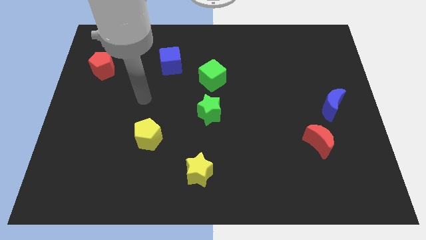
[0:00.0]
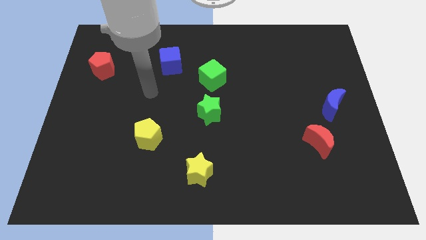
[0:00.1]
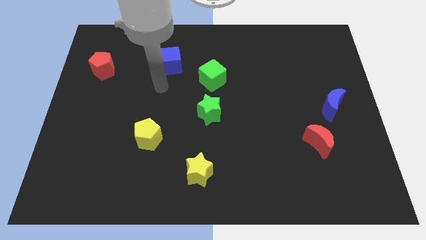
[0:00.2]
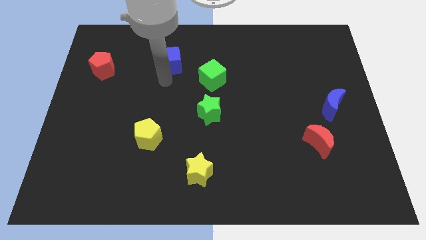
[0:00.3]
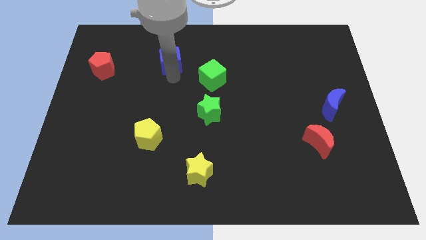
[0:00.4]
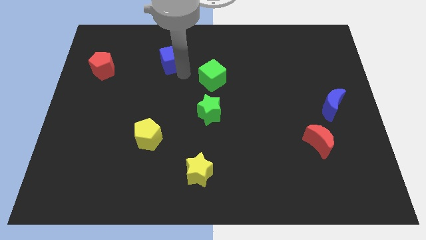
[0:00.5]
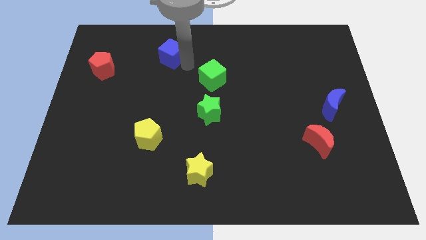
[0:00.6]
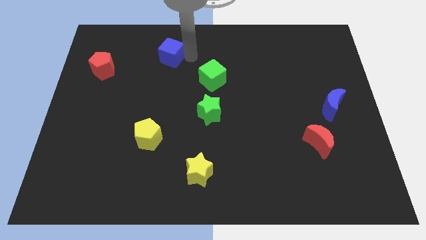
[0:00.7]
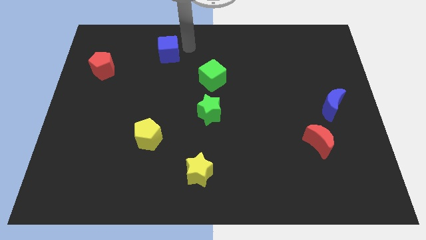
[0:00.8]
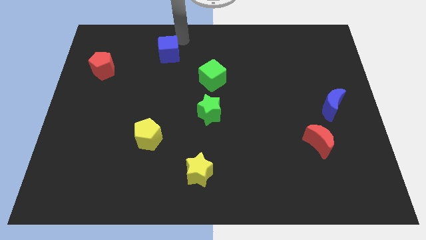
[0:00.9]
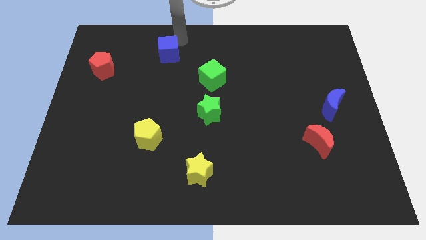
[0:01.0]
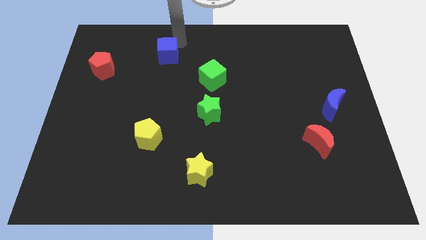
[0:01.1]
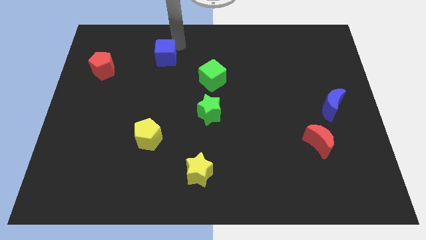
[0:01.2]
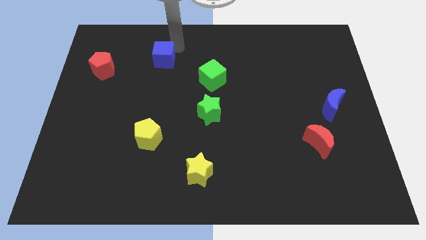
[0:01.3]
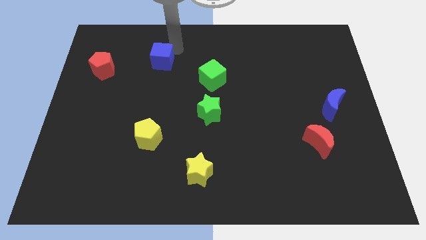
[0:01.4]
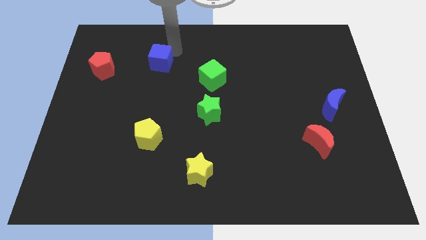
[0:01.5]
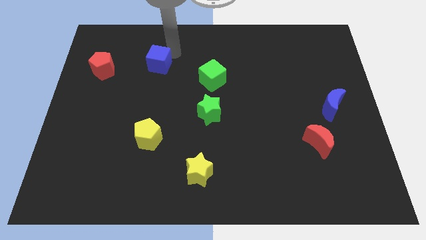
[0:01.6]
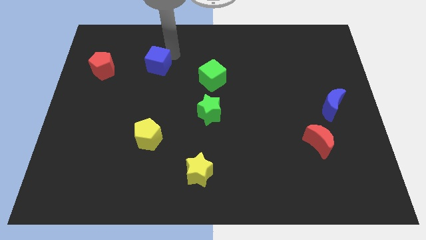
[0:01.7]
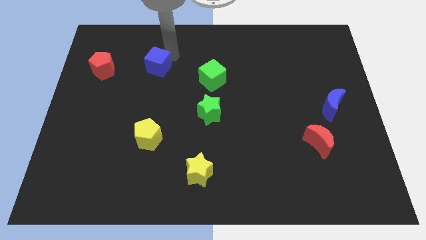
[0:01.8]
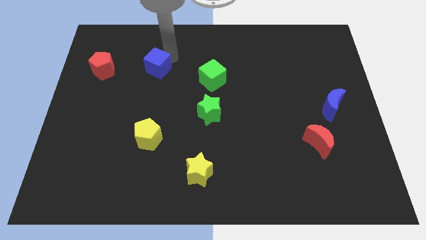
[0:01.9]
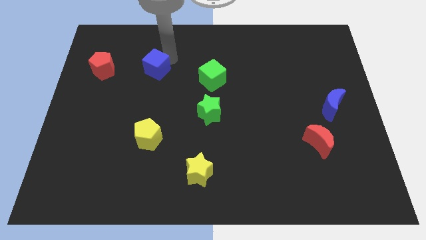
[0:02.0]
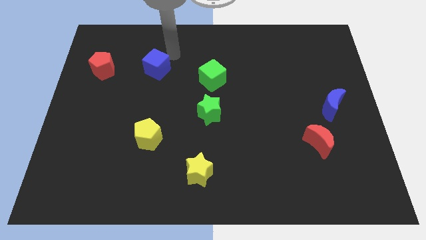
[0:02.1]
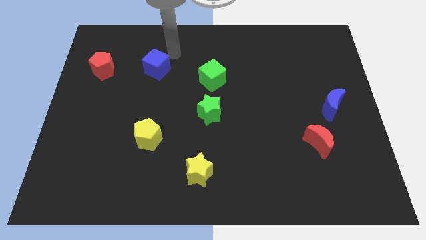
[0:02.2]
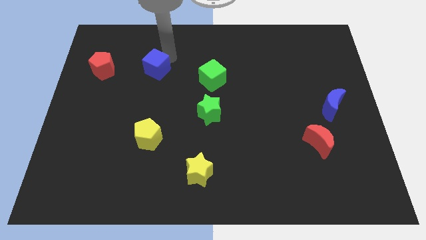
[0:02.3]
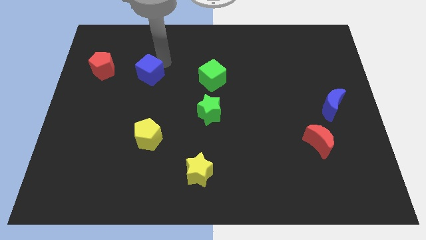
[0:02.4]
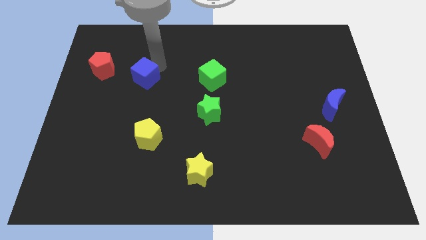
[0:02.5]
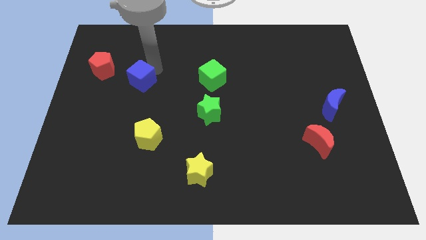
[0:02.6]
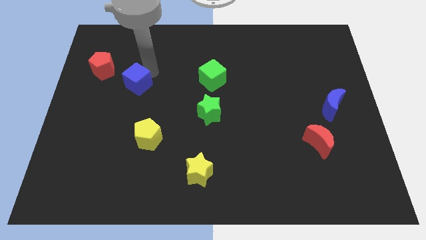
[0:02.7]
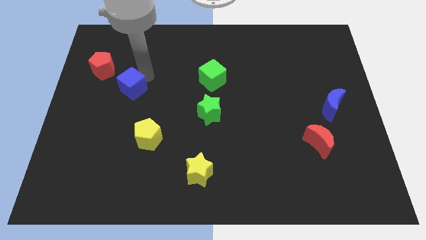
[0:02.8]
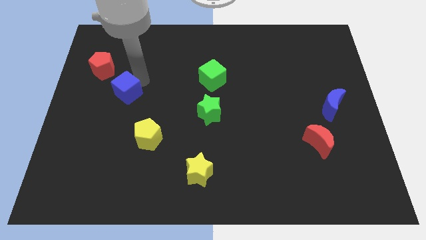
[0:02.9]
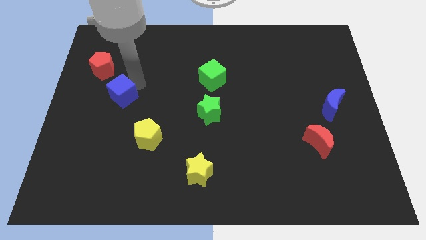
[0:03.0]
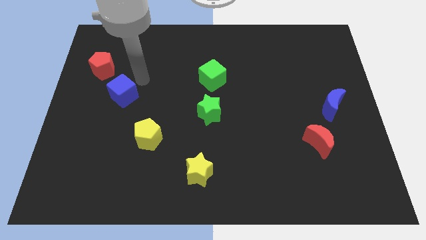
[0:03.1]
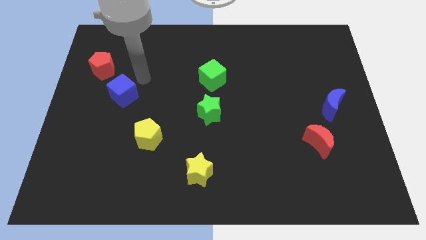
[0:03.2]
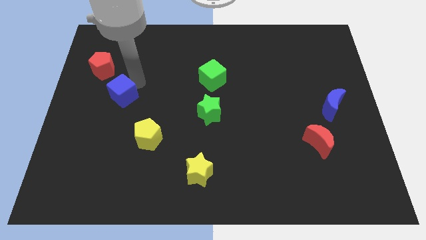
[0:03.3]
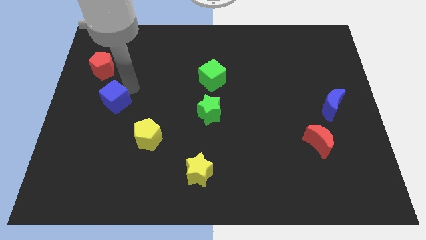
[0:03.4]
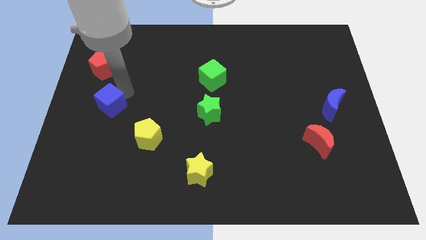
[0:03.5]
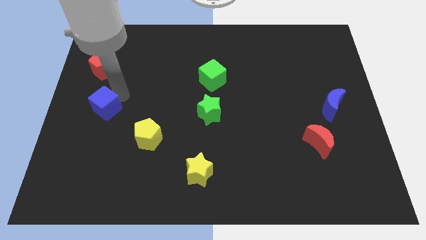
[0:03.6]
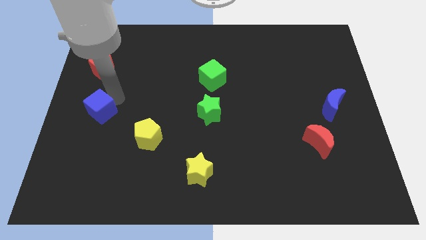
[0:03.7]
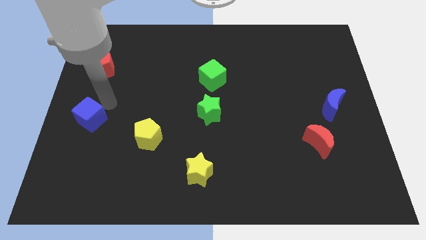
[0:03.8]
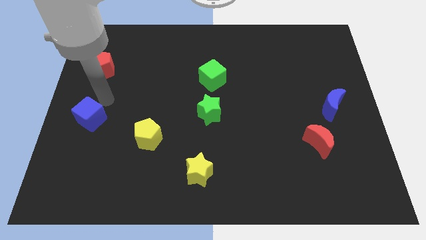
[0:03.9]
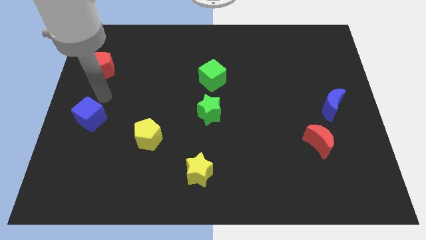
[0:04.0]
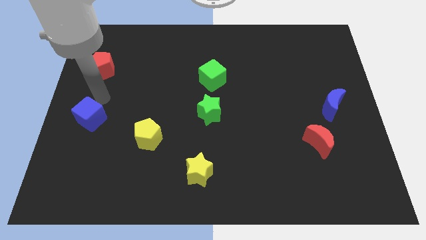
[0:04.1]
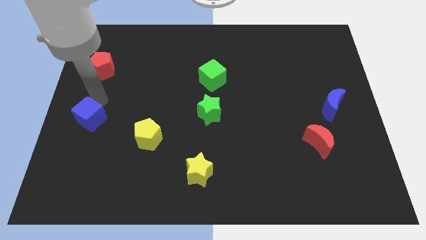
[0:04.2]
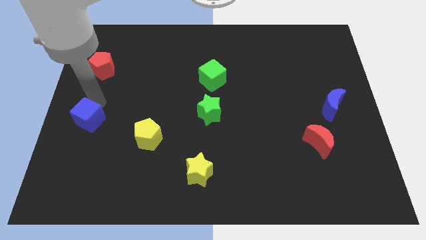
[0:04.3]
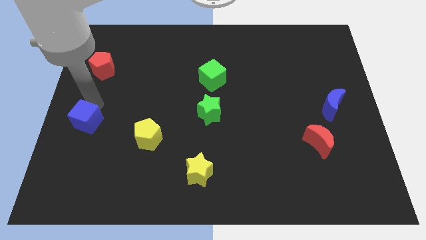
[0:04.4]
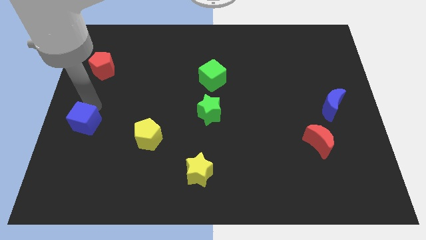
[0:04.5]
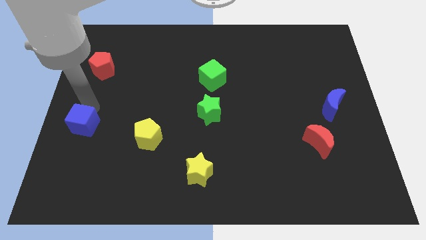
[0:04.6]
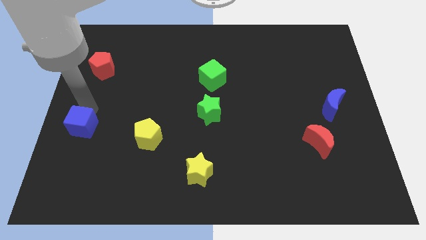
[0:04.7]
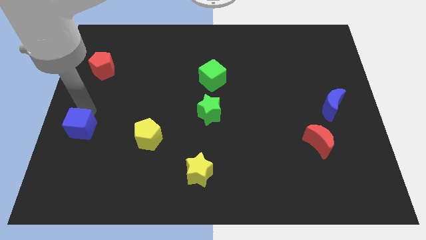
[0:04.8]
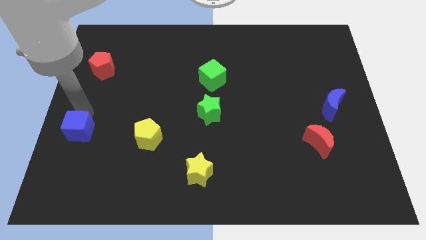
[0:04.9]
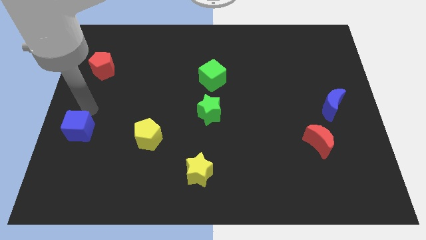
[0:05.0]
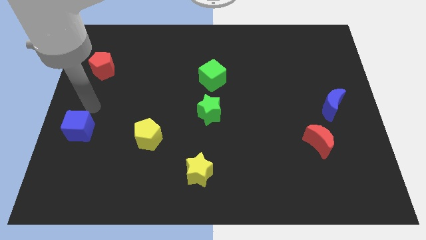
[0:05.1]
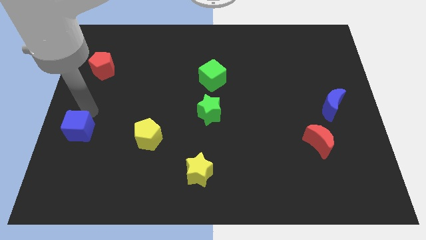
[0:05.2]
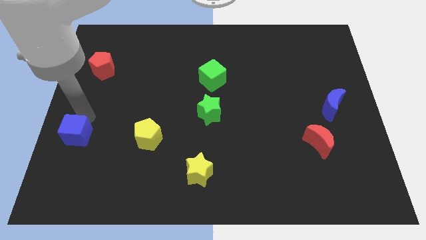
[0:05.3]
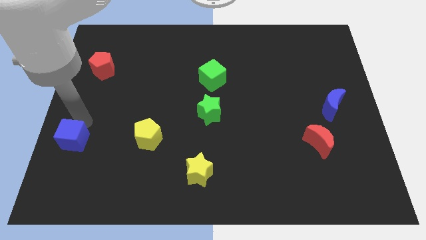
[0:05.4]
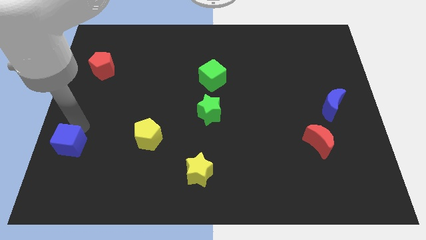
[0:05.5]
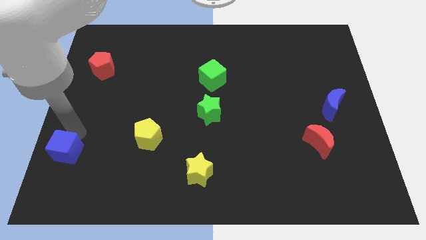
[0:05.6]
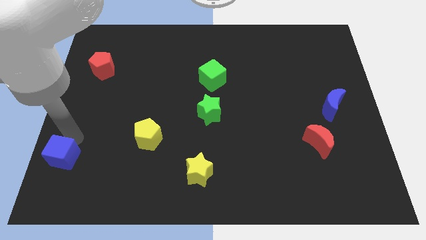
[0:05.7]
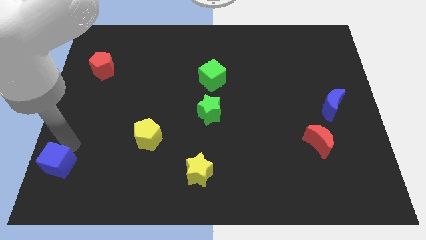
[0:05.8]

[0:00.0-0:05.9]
put the blue cube to the bottom left
